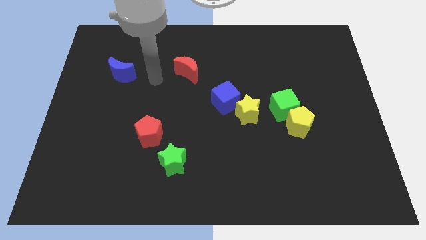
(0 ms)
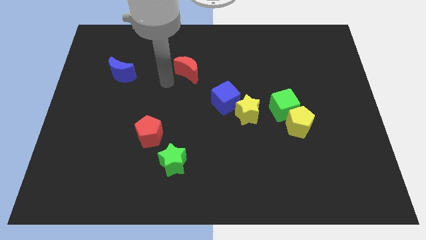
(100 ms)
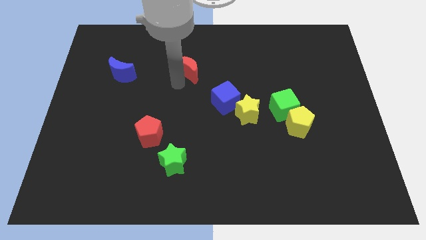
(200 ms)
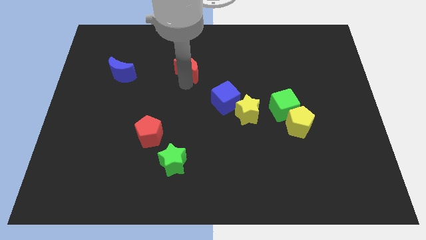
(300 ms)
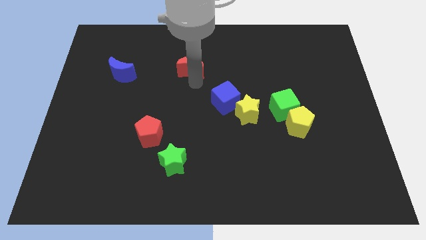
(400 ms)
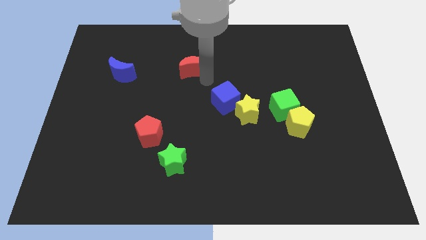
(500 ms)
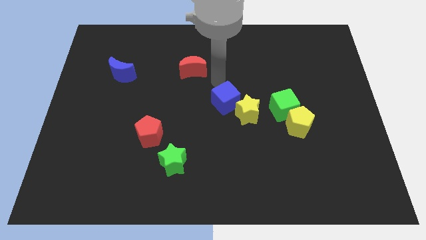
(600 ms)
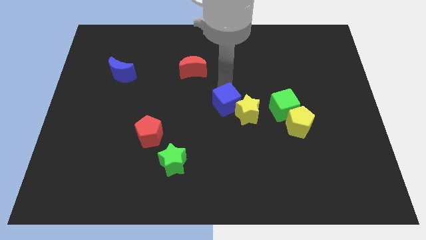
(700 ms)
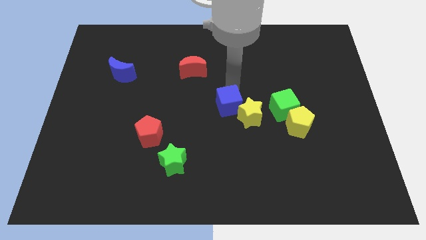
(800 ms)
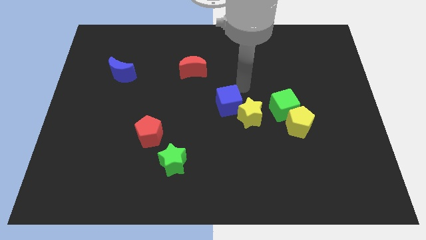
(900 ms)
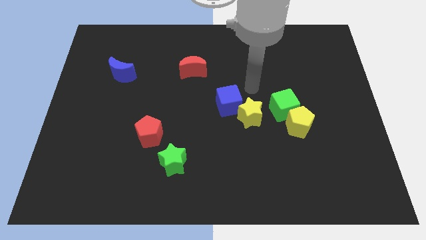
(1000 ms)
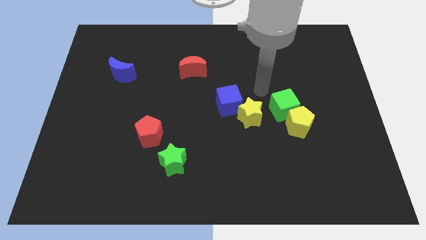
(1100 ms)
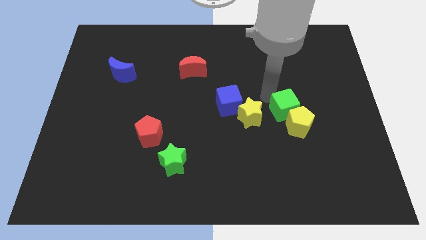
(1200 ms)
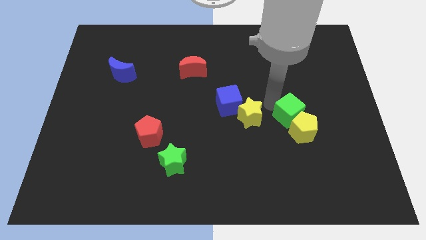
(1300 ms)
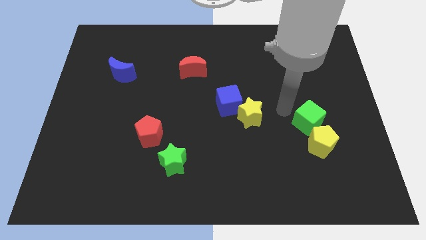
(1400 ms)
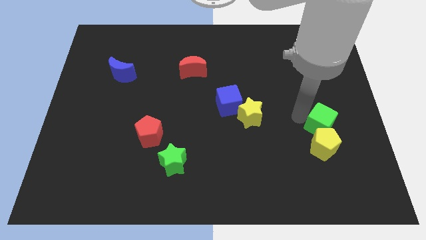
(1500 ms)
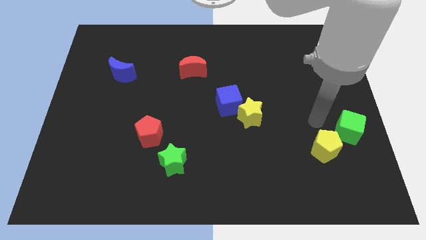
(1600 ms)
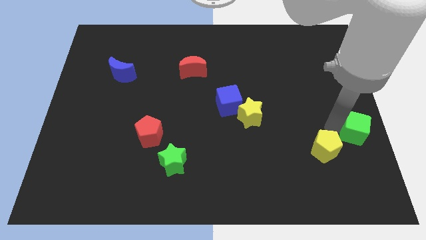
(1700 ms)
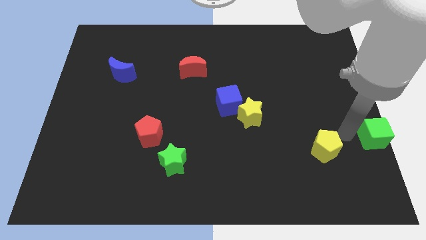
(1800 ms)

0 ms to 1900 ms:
separate the yellow pentagon from the green cube

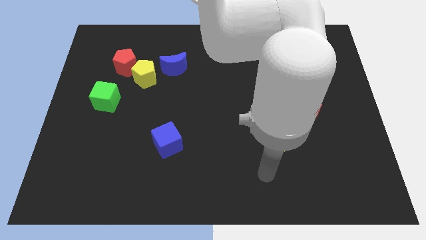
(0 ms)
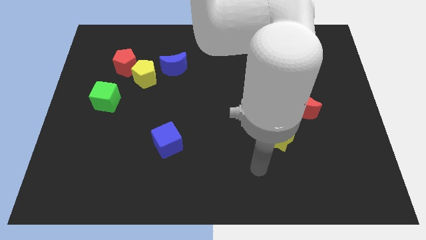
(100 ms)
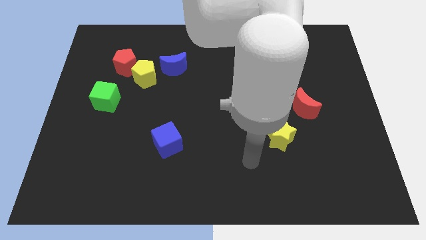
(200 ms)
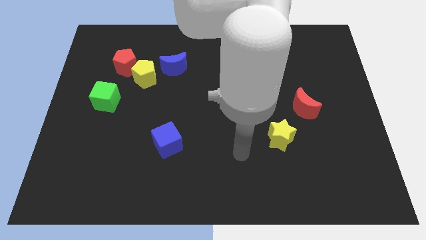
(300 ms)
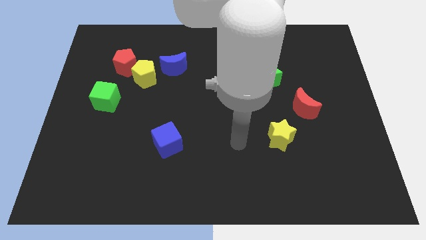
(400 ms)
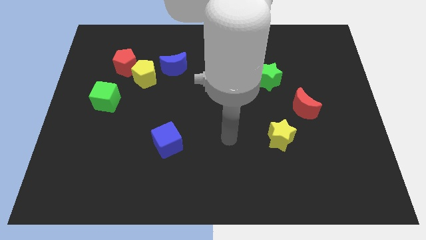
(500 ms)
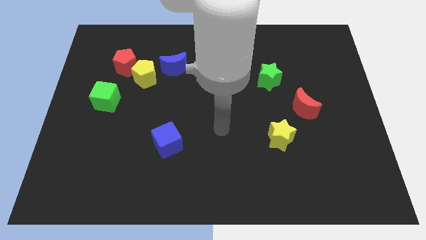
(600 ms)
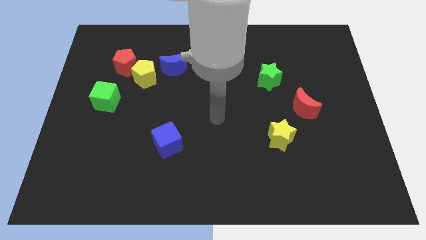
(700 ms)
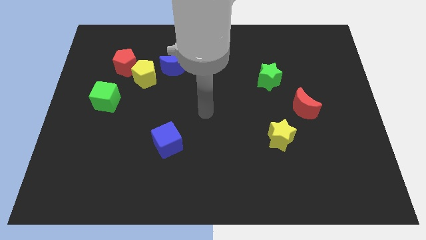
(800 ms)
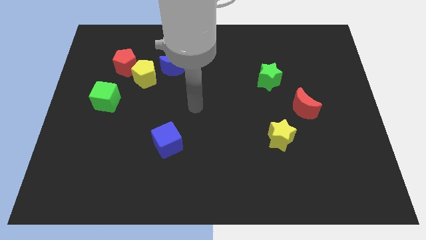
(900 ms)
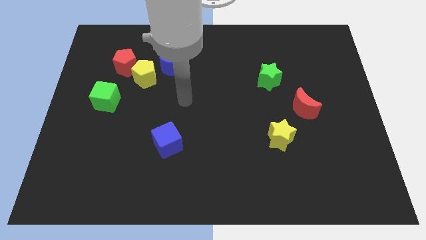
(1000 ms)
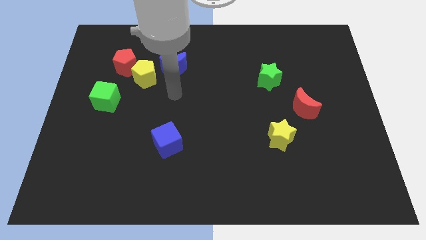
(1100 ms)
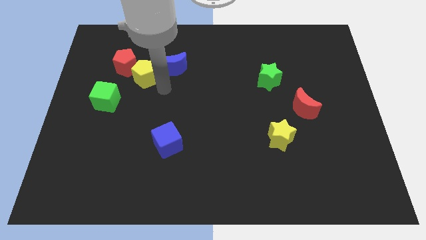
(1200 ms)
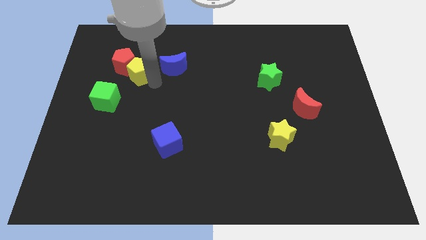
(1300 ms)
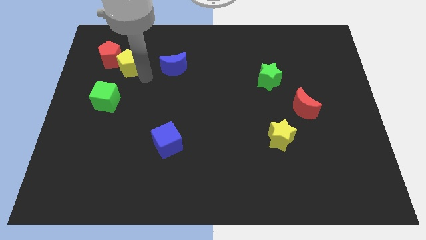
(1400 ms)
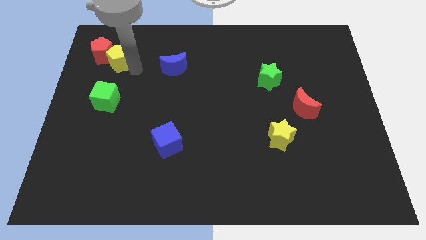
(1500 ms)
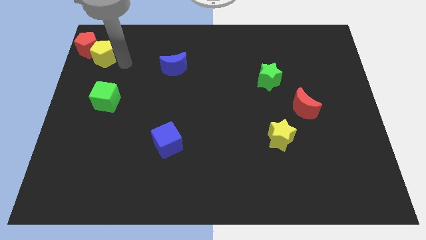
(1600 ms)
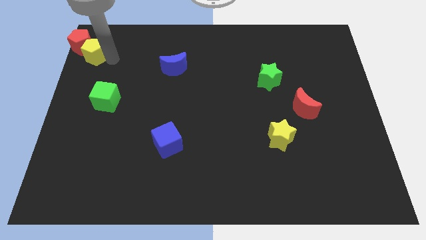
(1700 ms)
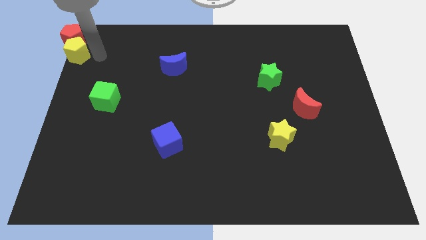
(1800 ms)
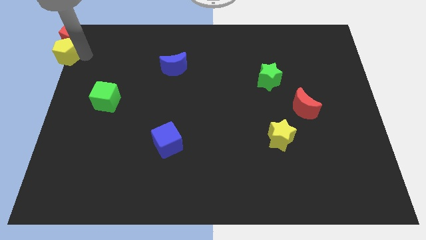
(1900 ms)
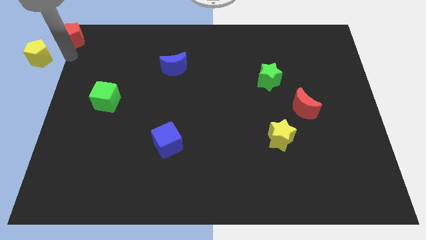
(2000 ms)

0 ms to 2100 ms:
separate the red pentagon from the yellow pentagon

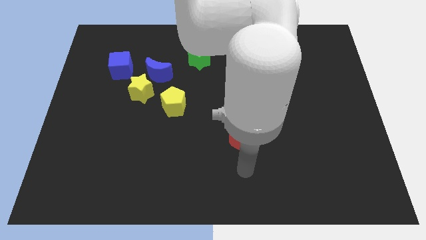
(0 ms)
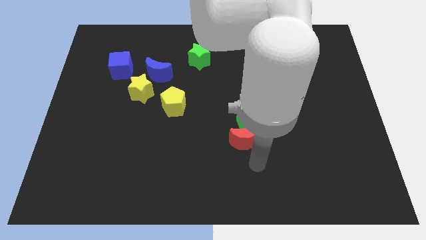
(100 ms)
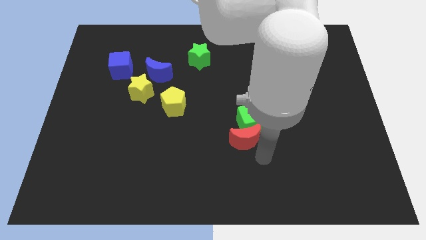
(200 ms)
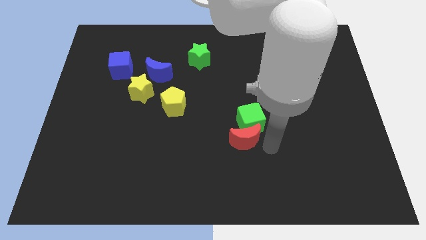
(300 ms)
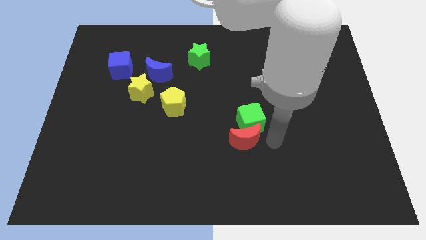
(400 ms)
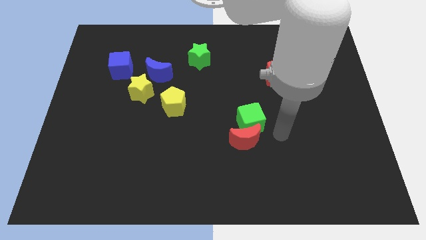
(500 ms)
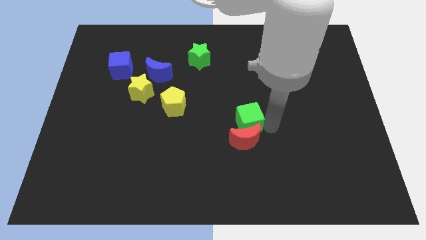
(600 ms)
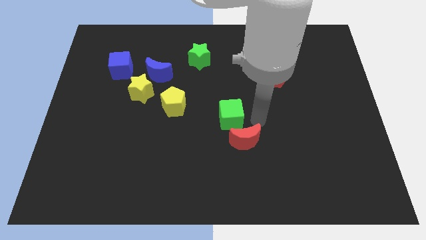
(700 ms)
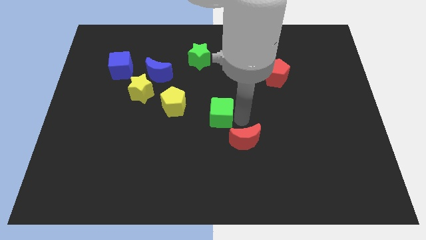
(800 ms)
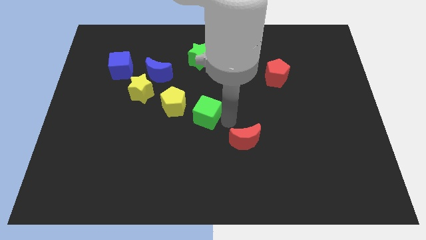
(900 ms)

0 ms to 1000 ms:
pull the red moon apart from the green cube

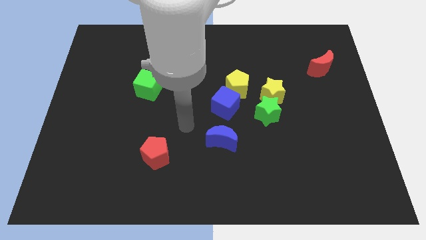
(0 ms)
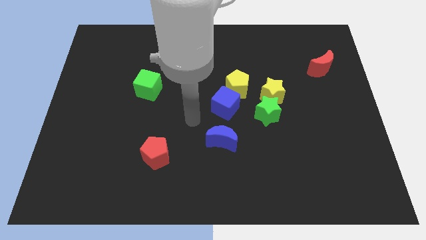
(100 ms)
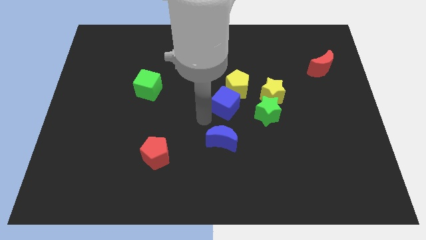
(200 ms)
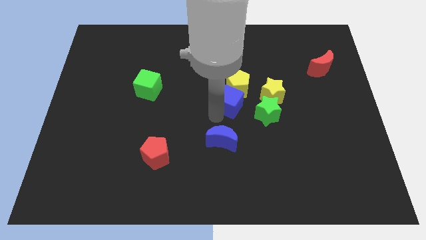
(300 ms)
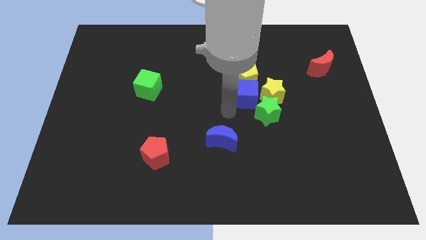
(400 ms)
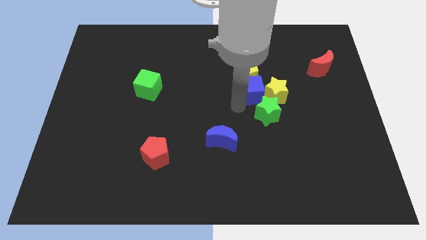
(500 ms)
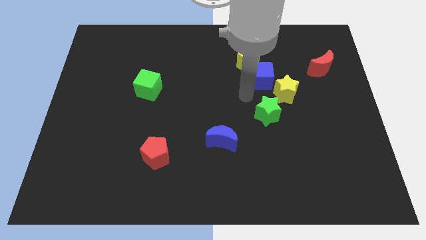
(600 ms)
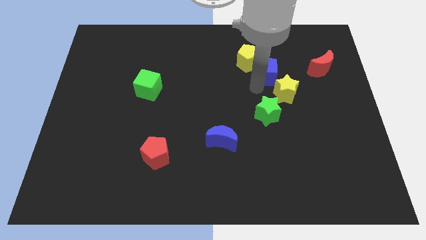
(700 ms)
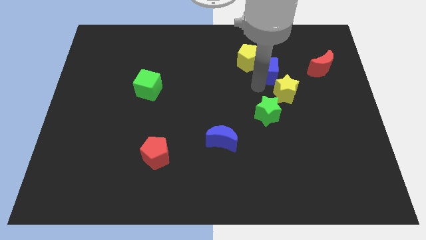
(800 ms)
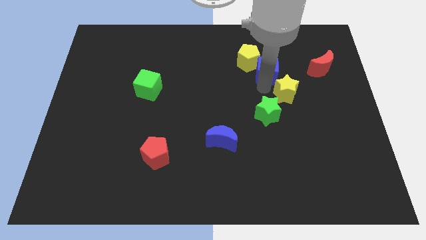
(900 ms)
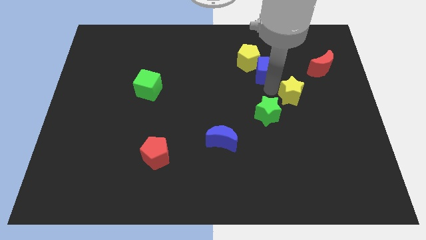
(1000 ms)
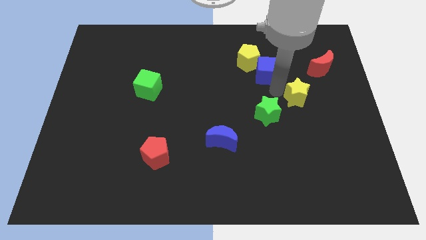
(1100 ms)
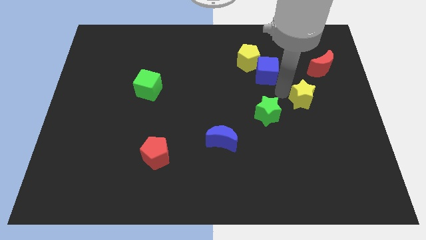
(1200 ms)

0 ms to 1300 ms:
pull the yellow star apart from the green star and yellow pentagon

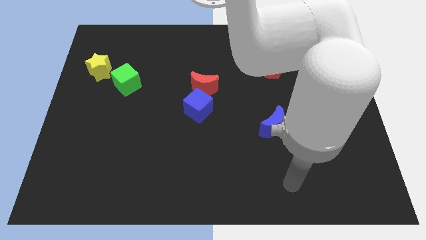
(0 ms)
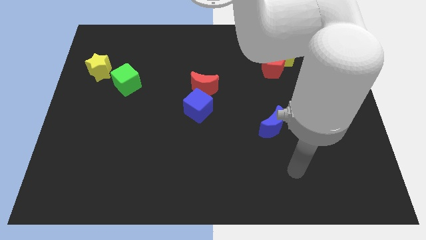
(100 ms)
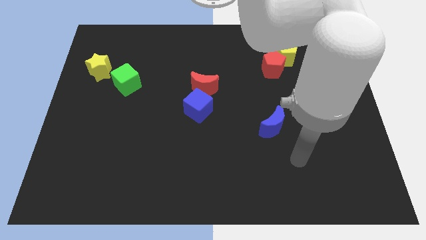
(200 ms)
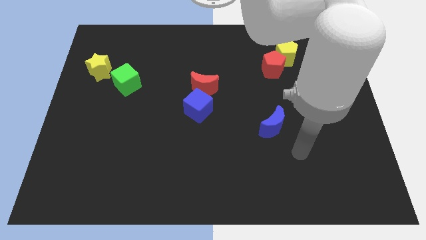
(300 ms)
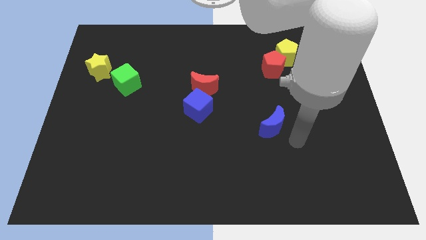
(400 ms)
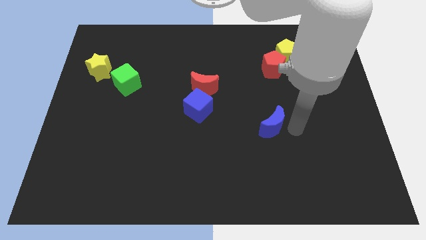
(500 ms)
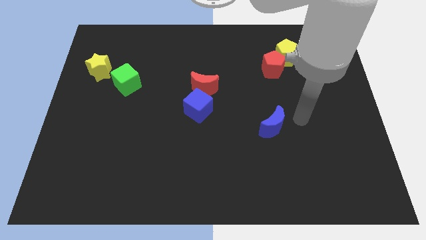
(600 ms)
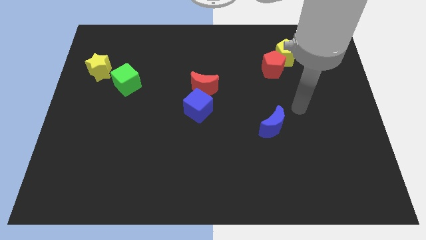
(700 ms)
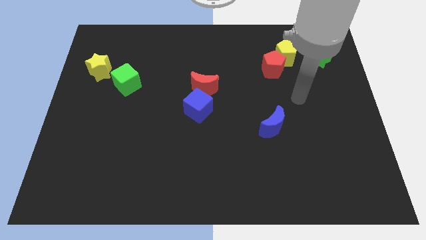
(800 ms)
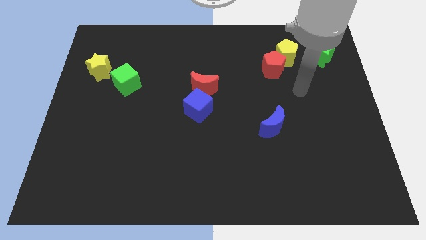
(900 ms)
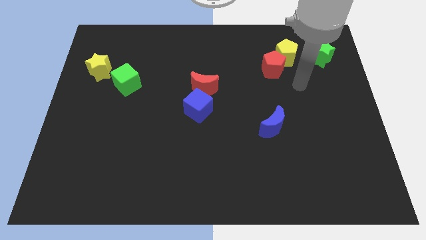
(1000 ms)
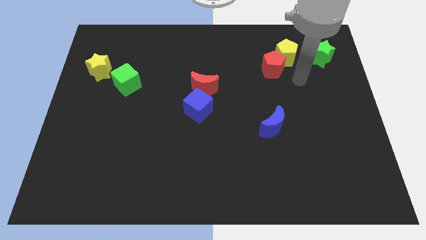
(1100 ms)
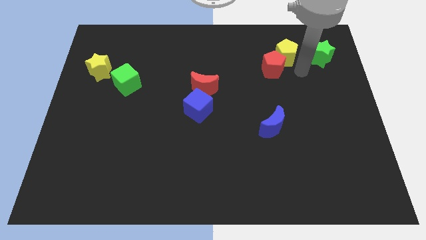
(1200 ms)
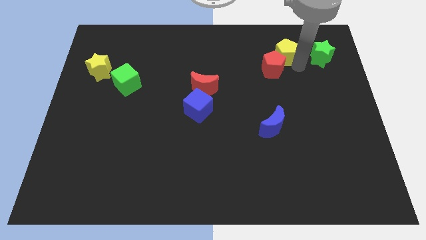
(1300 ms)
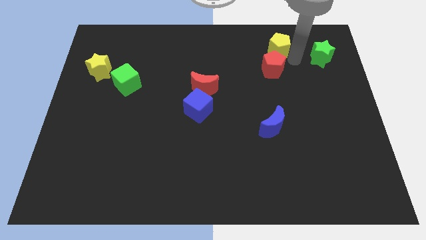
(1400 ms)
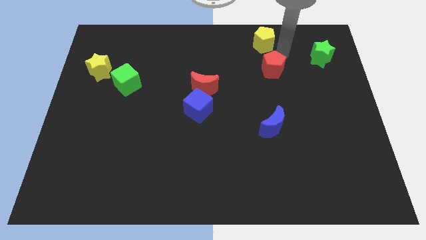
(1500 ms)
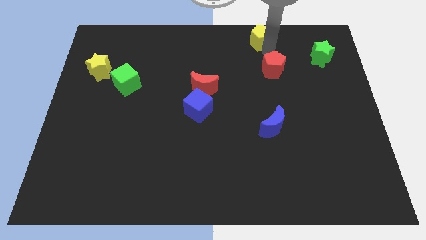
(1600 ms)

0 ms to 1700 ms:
pull the red pentagon apart from the yellow pentagon

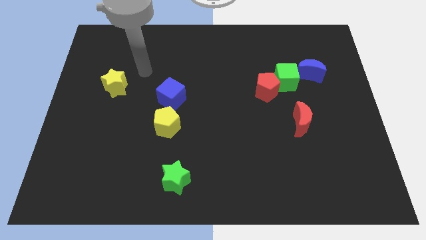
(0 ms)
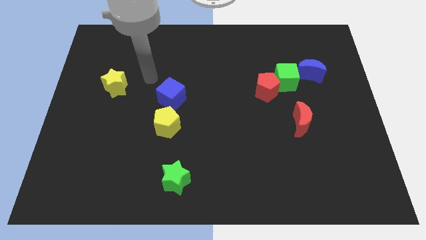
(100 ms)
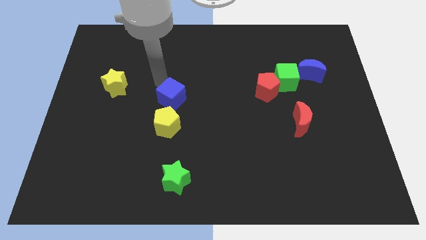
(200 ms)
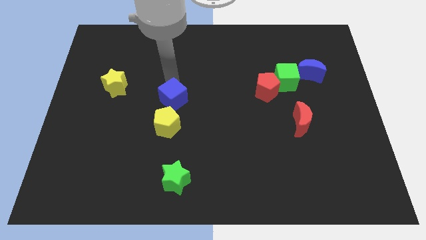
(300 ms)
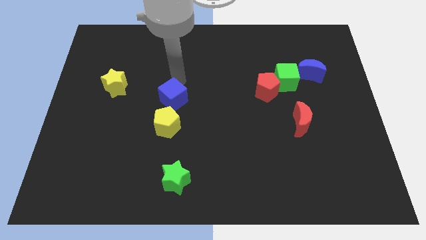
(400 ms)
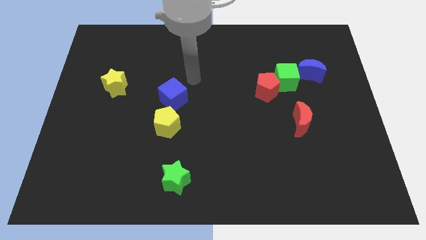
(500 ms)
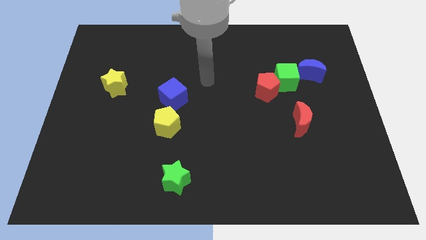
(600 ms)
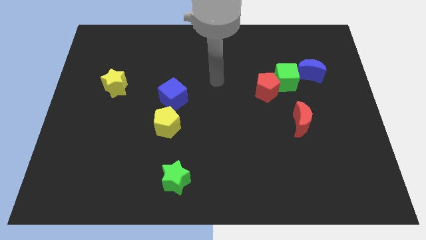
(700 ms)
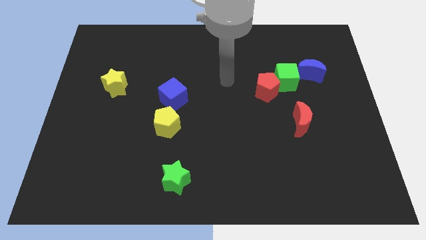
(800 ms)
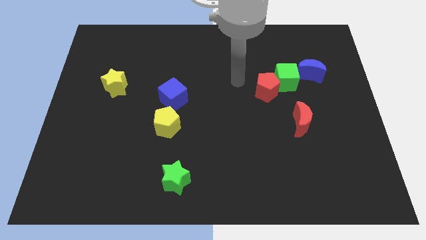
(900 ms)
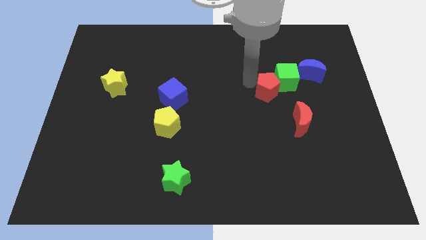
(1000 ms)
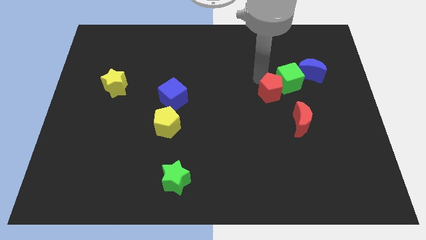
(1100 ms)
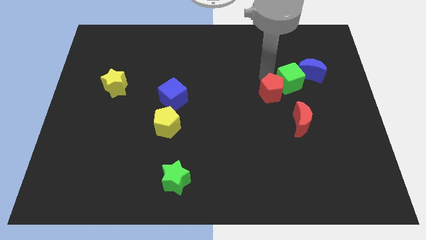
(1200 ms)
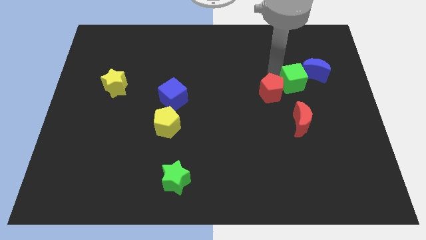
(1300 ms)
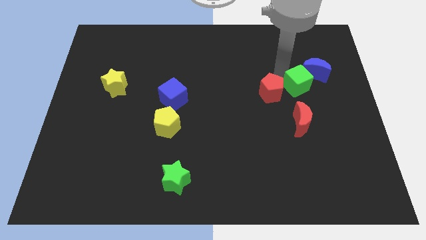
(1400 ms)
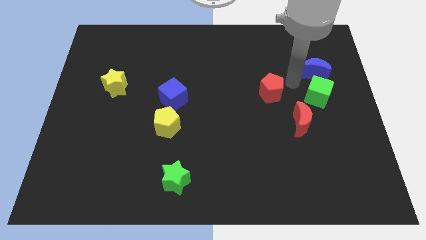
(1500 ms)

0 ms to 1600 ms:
move the red pentagon away from the green cube
